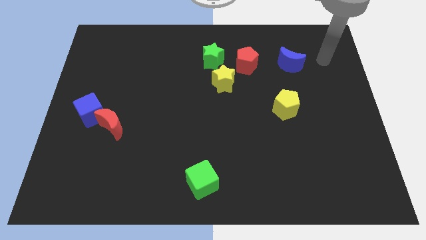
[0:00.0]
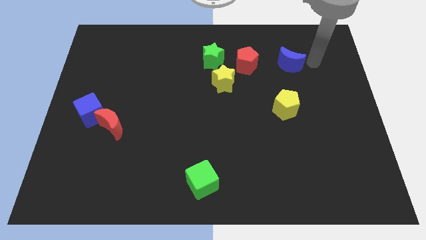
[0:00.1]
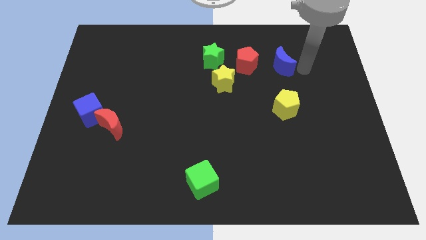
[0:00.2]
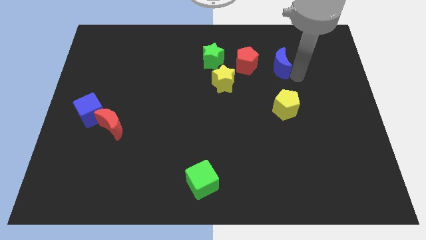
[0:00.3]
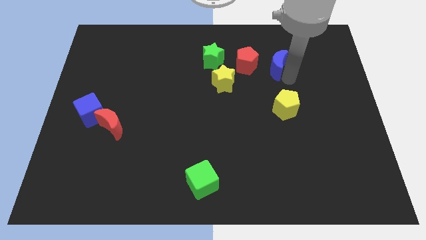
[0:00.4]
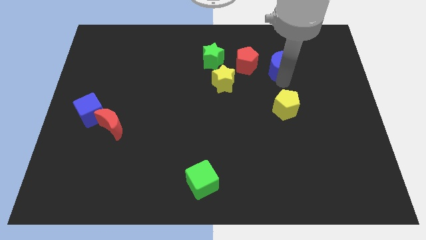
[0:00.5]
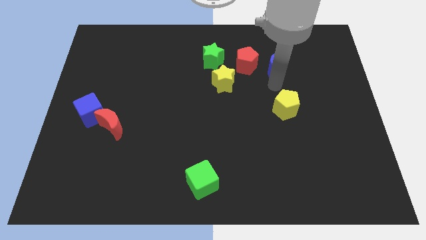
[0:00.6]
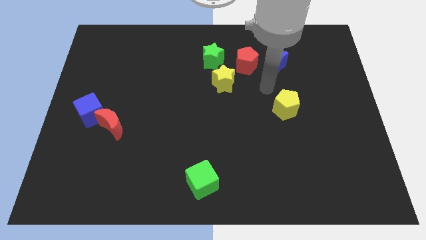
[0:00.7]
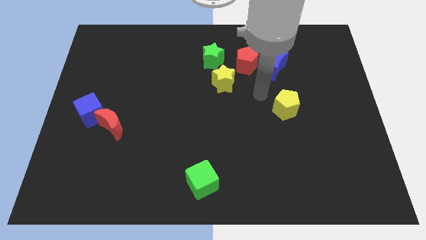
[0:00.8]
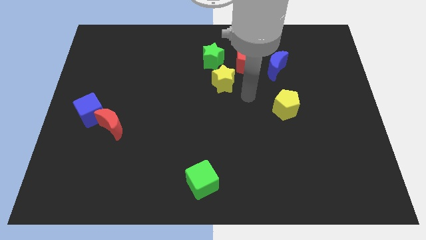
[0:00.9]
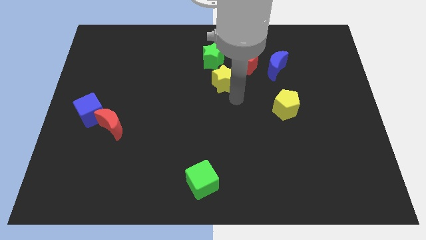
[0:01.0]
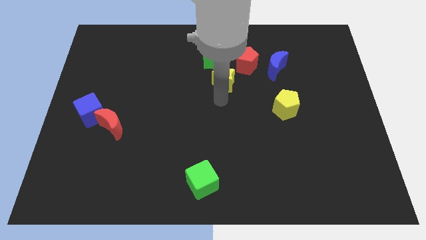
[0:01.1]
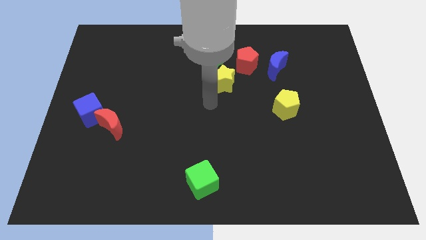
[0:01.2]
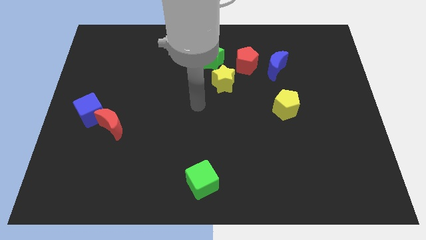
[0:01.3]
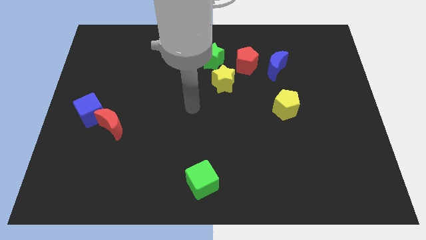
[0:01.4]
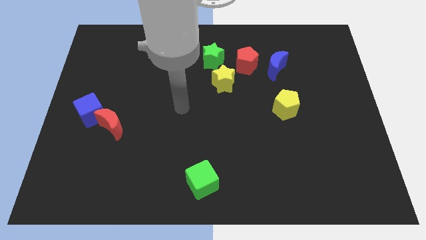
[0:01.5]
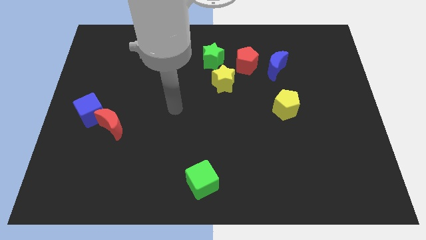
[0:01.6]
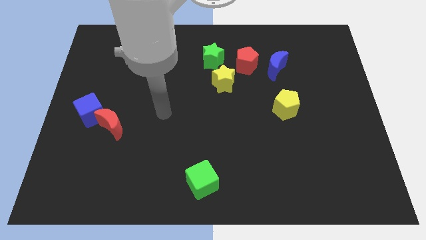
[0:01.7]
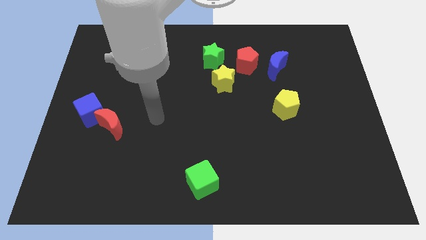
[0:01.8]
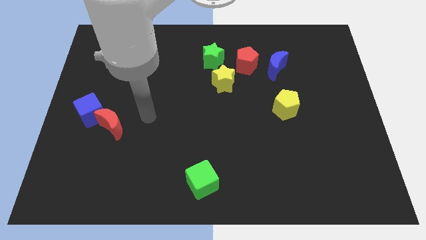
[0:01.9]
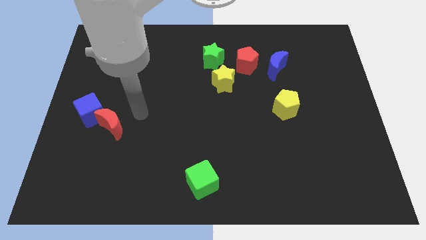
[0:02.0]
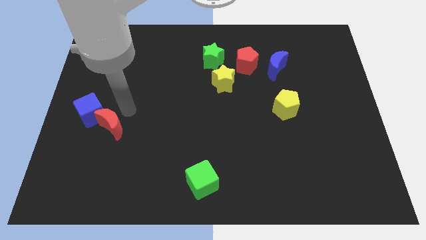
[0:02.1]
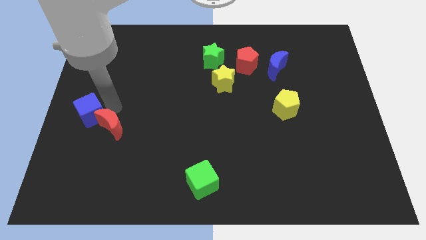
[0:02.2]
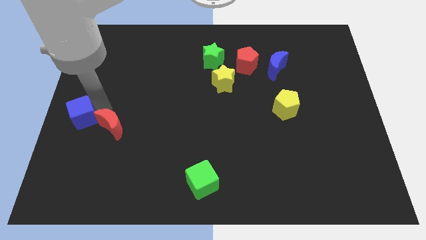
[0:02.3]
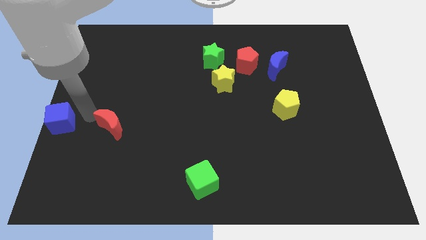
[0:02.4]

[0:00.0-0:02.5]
pull the red moon apart from the blue cube

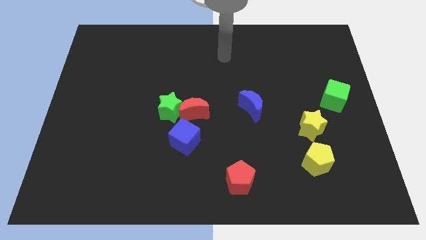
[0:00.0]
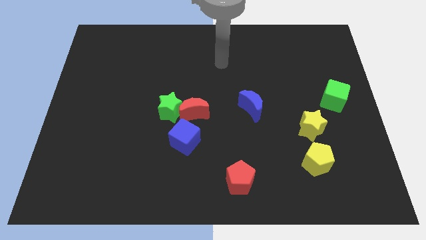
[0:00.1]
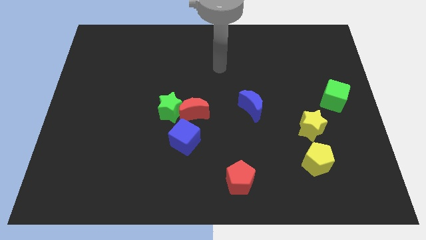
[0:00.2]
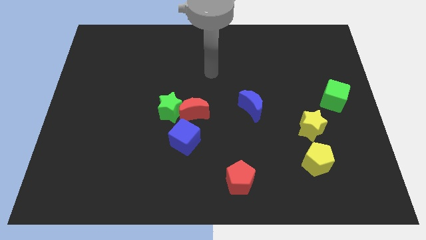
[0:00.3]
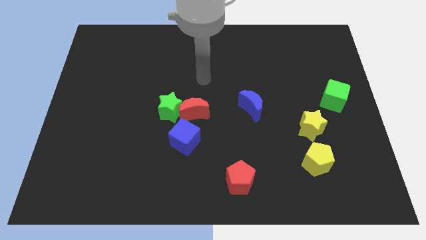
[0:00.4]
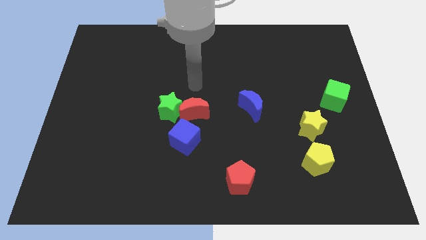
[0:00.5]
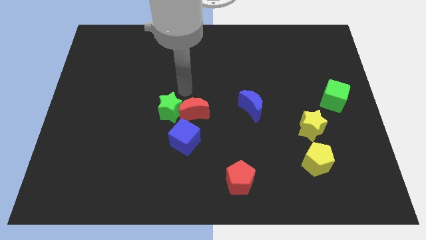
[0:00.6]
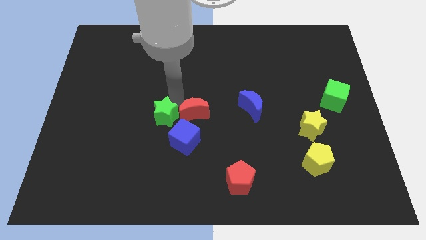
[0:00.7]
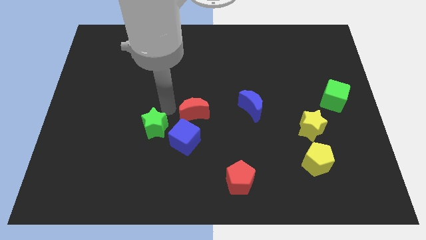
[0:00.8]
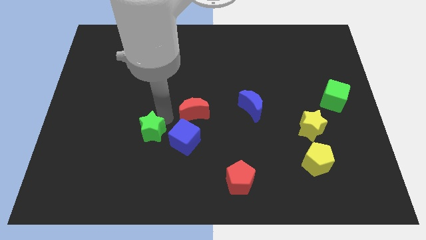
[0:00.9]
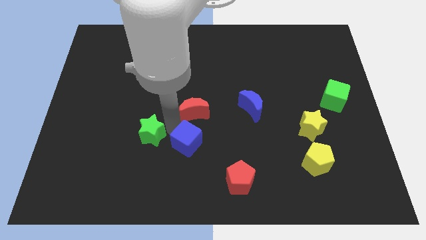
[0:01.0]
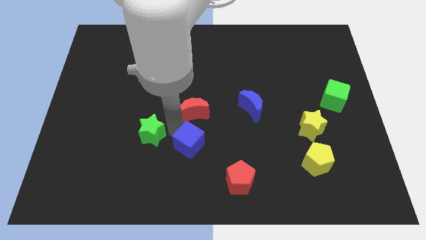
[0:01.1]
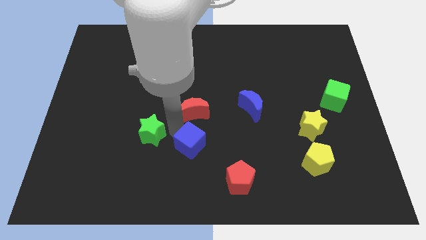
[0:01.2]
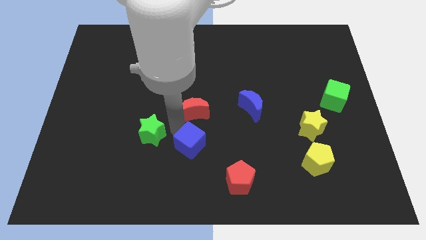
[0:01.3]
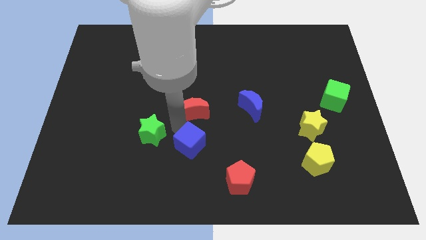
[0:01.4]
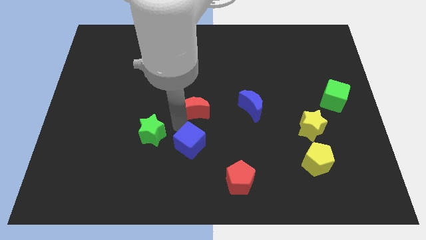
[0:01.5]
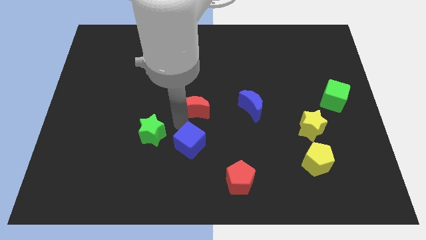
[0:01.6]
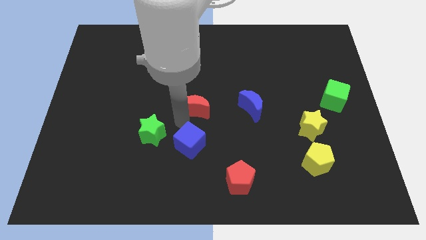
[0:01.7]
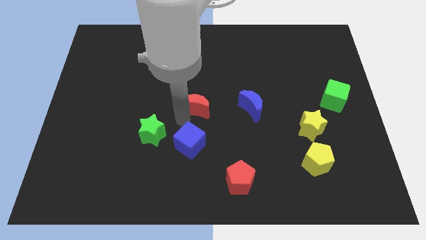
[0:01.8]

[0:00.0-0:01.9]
pull the red moon apart from the green star and blue cube

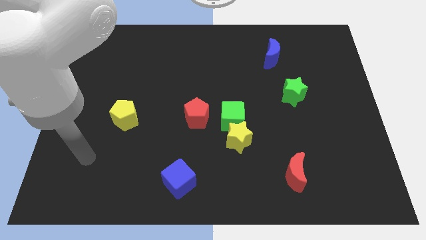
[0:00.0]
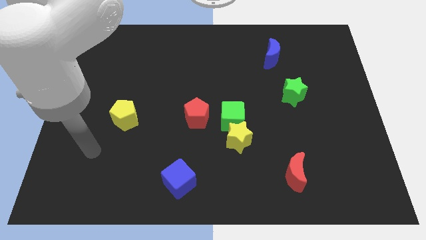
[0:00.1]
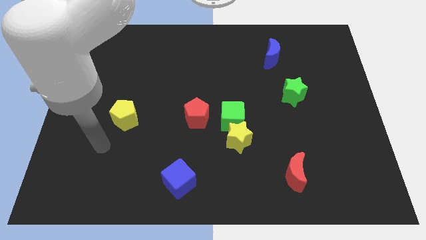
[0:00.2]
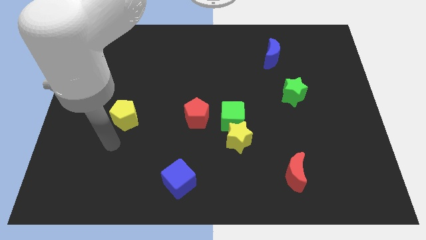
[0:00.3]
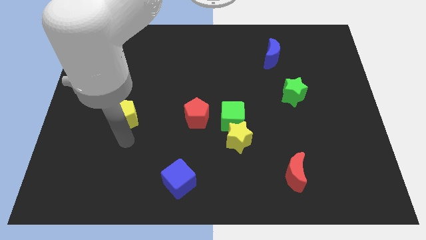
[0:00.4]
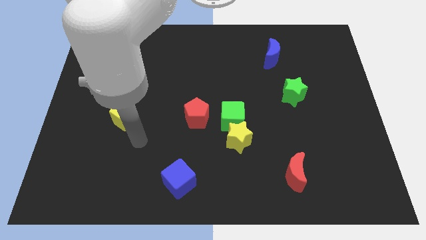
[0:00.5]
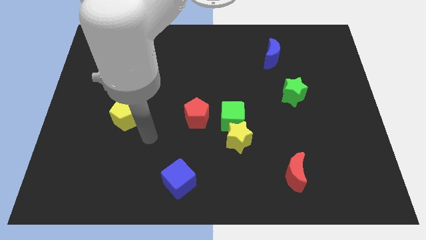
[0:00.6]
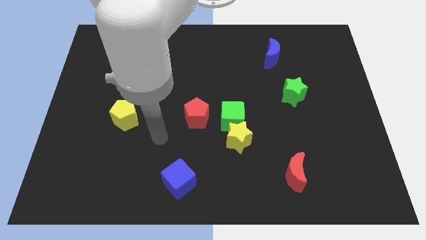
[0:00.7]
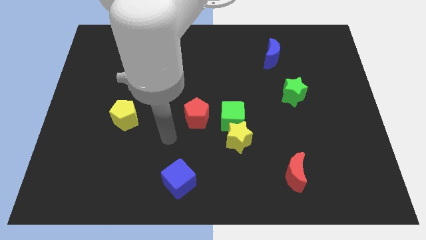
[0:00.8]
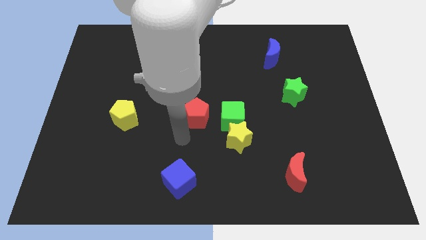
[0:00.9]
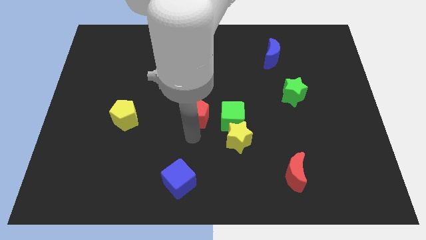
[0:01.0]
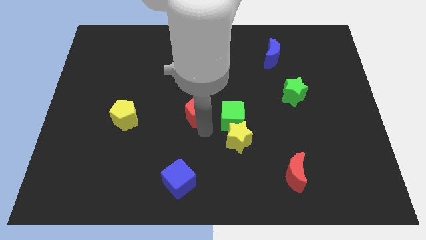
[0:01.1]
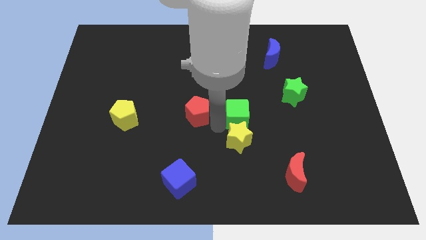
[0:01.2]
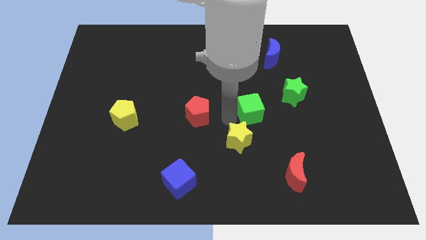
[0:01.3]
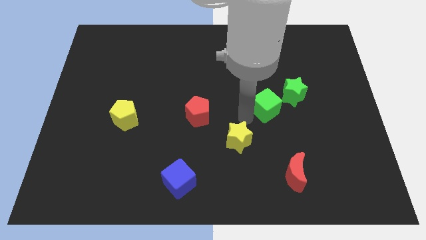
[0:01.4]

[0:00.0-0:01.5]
pull the yellow star apart from the green cube

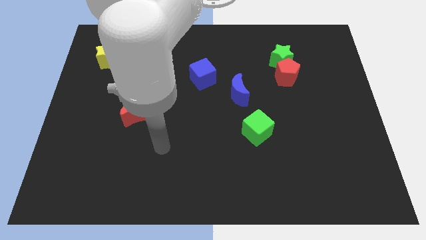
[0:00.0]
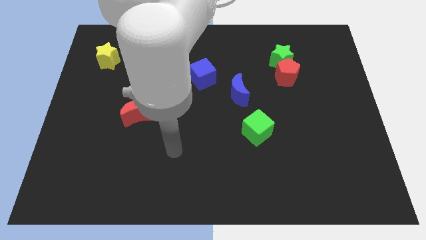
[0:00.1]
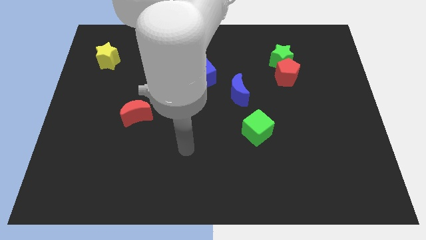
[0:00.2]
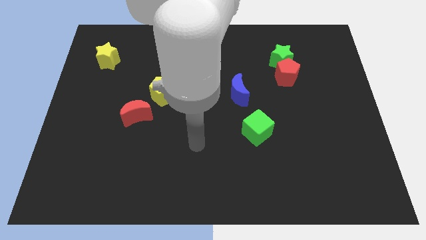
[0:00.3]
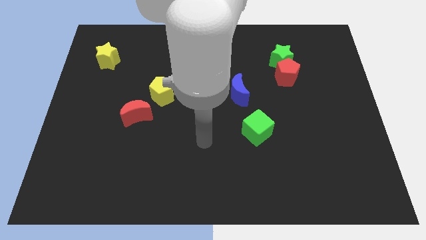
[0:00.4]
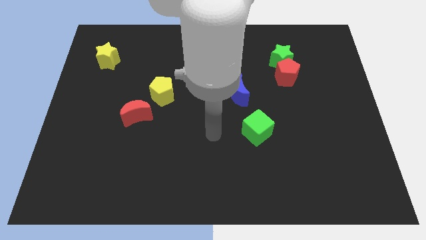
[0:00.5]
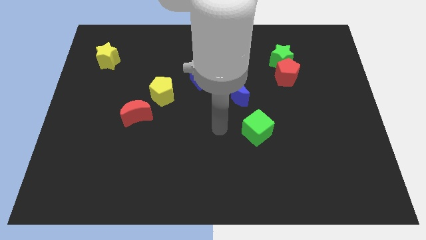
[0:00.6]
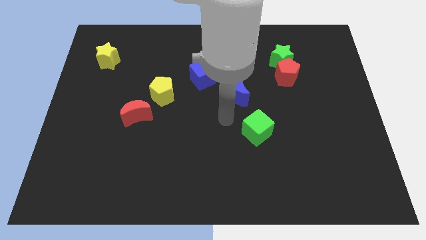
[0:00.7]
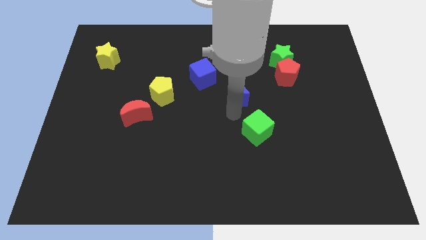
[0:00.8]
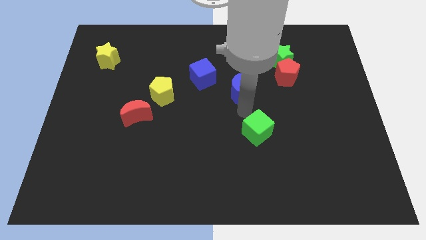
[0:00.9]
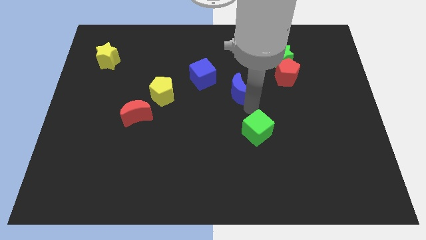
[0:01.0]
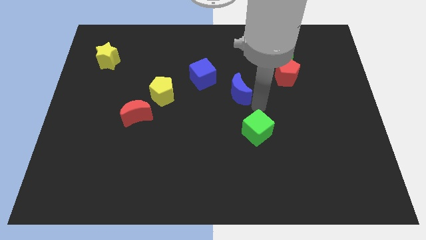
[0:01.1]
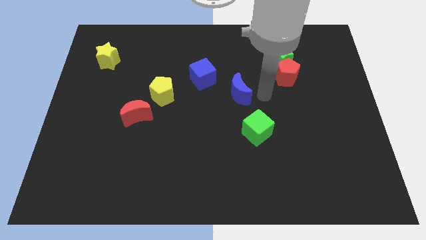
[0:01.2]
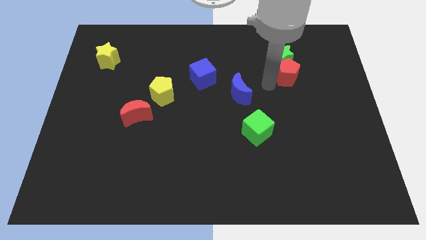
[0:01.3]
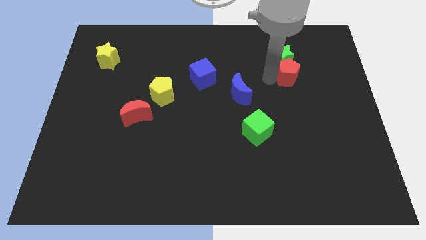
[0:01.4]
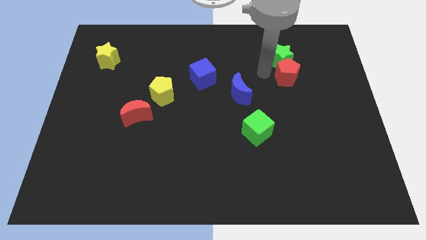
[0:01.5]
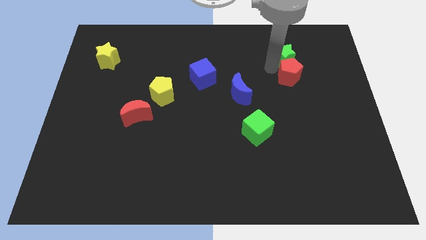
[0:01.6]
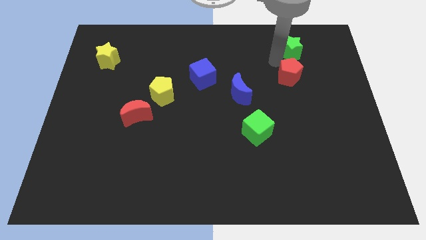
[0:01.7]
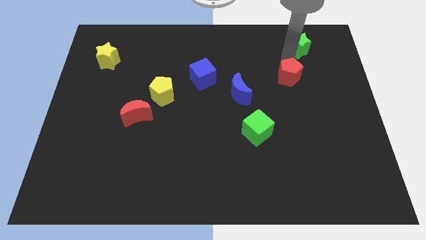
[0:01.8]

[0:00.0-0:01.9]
pull the red pentagon apart from the green star

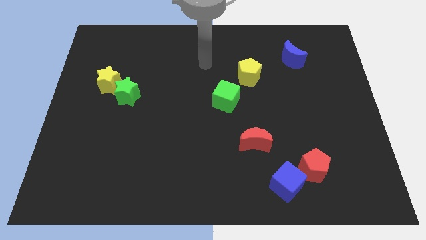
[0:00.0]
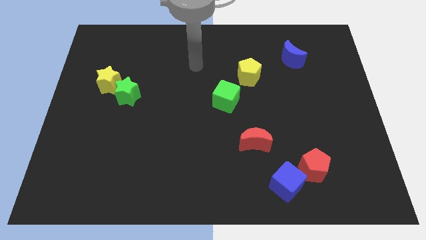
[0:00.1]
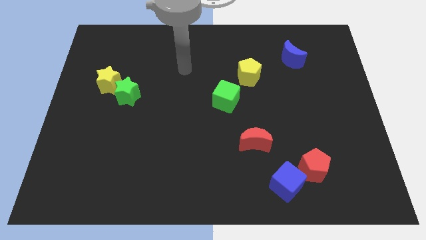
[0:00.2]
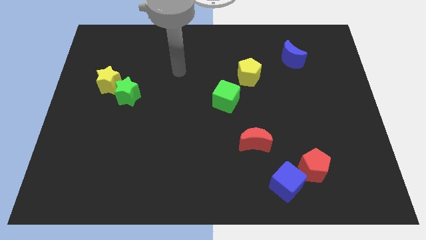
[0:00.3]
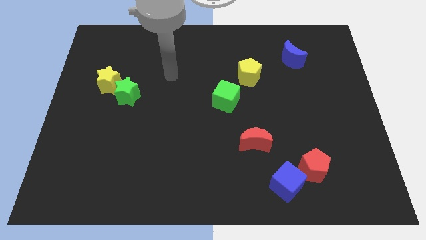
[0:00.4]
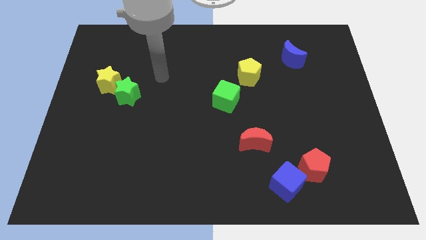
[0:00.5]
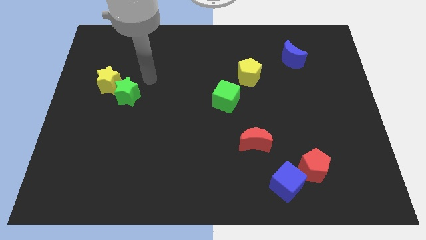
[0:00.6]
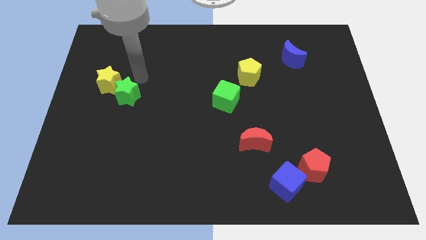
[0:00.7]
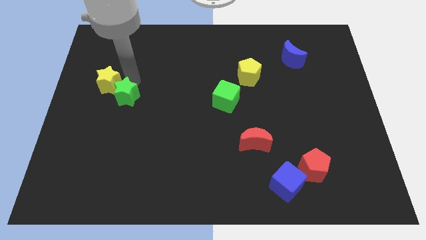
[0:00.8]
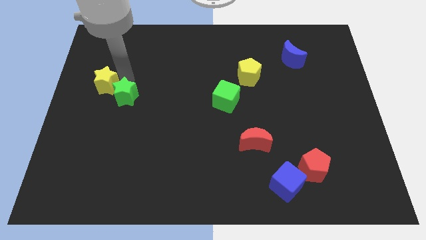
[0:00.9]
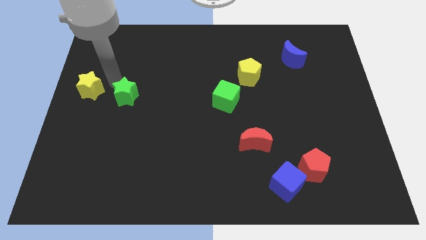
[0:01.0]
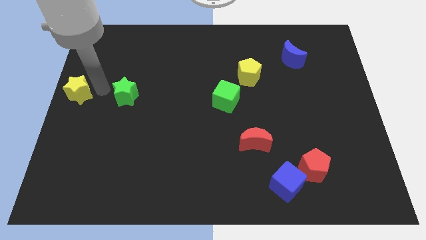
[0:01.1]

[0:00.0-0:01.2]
move the green star away from the yellow star

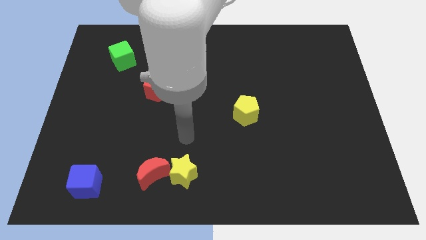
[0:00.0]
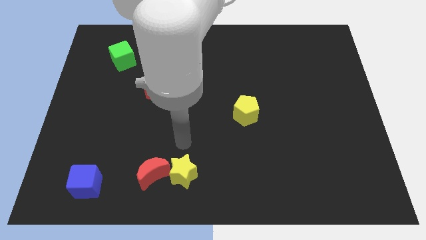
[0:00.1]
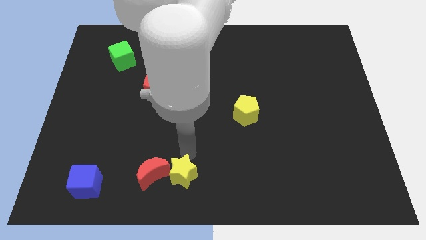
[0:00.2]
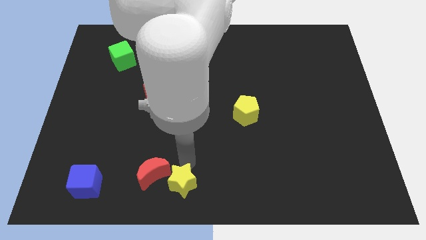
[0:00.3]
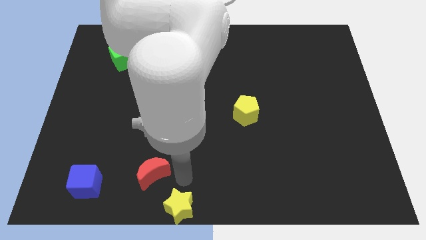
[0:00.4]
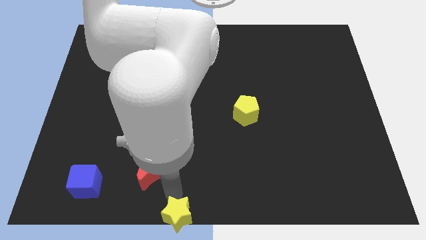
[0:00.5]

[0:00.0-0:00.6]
separate the red moon from the yellow star
